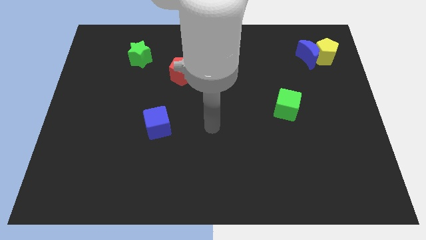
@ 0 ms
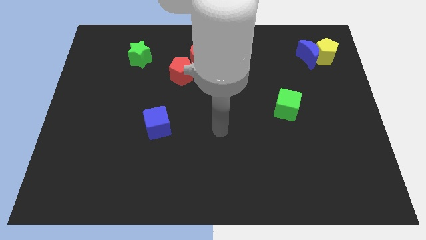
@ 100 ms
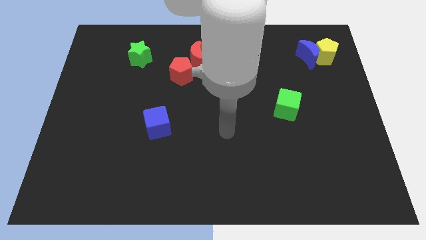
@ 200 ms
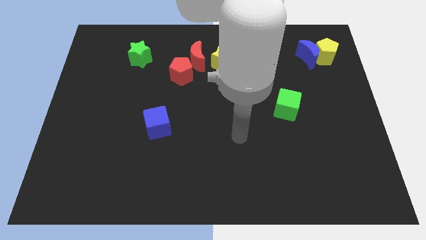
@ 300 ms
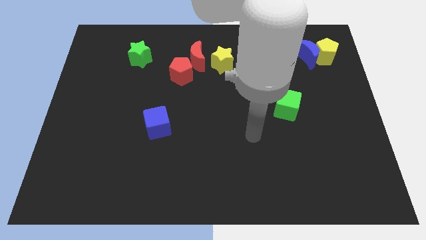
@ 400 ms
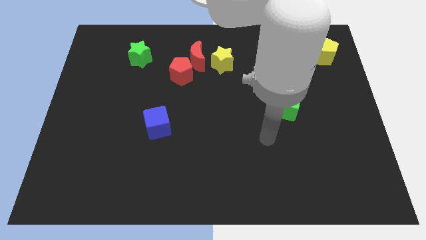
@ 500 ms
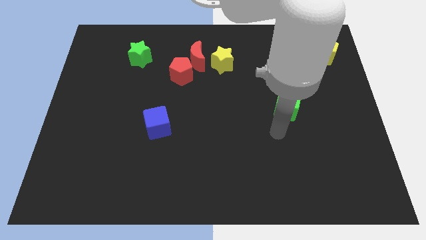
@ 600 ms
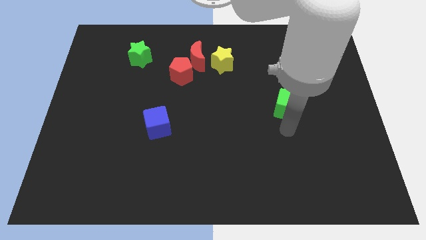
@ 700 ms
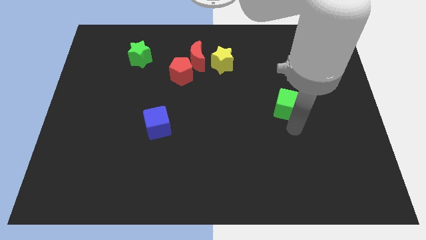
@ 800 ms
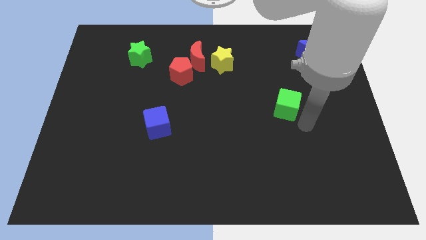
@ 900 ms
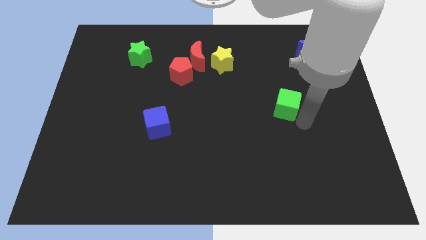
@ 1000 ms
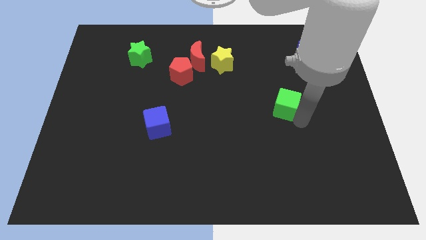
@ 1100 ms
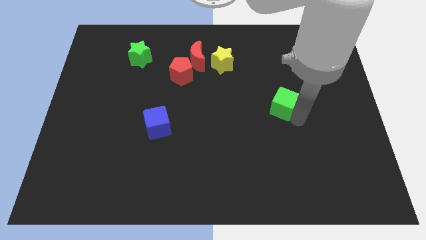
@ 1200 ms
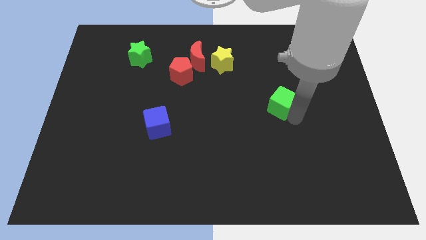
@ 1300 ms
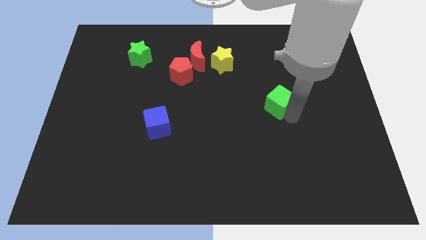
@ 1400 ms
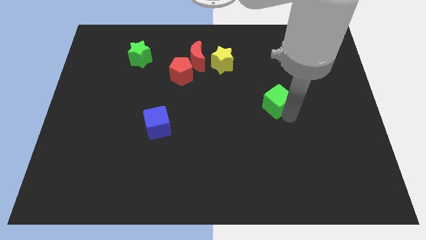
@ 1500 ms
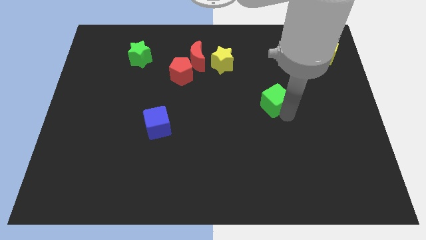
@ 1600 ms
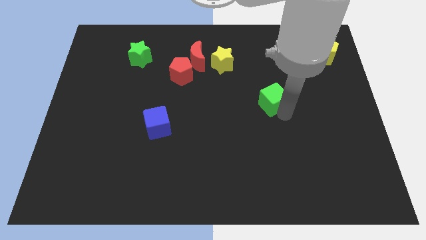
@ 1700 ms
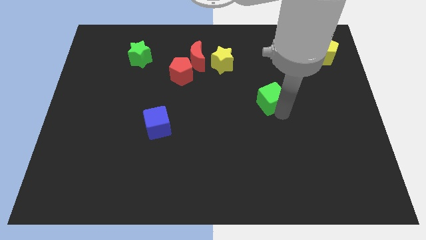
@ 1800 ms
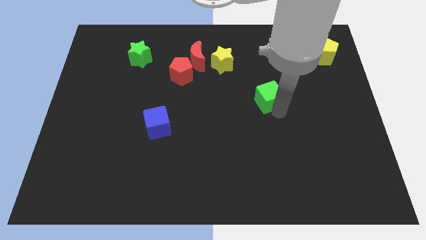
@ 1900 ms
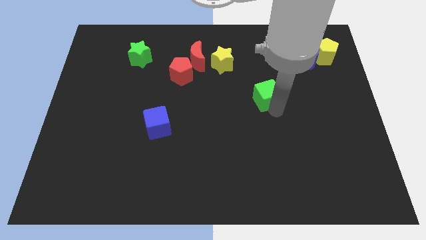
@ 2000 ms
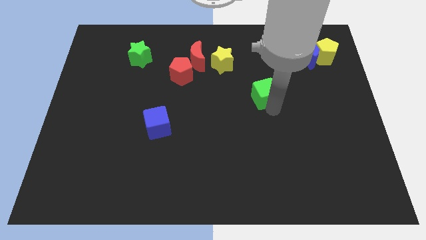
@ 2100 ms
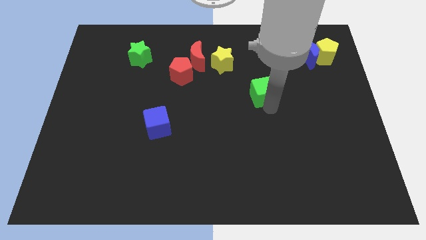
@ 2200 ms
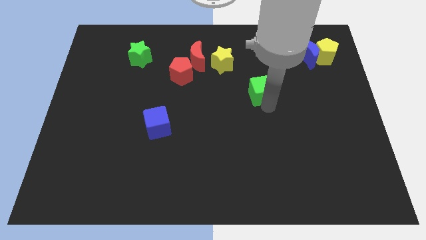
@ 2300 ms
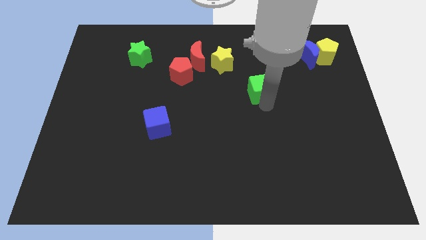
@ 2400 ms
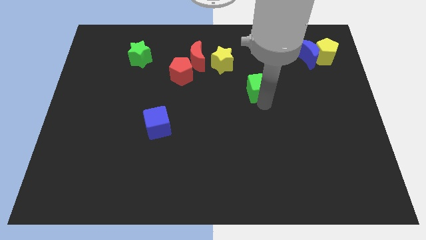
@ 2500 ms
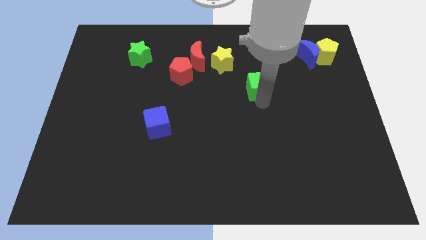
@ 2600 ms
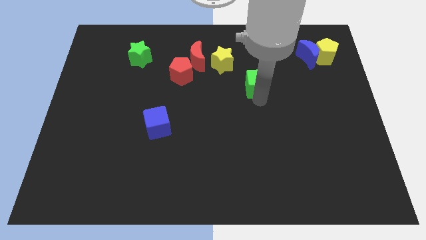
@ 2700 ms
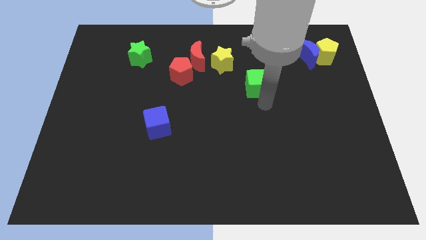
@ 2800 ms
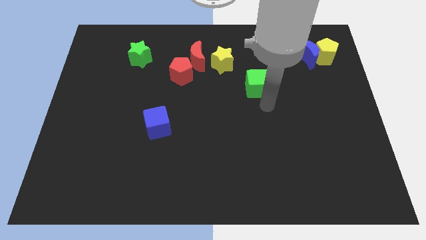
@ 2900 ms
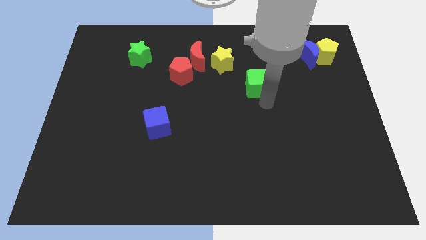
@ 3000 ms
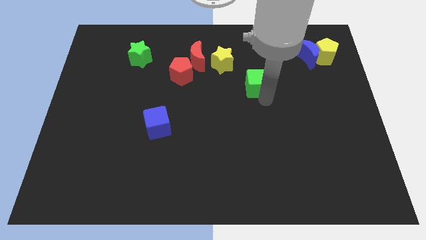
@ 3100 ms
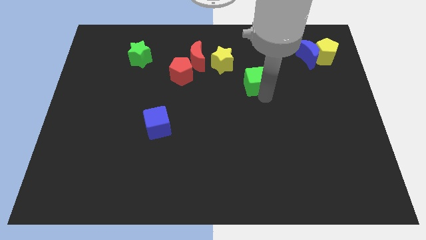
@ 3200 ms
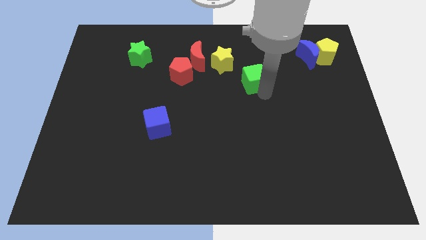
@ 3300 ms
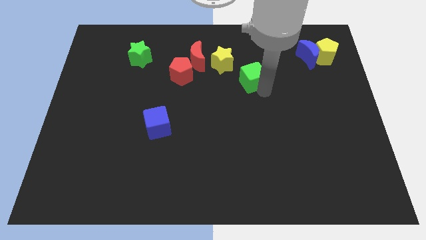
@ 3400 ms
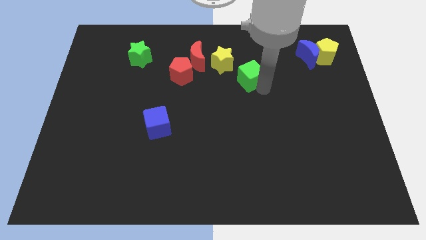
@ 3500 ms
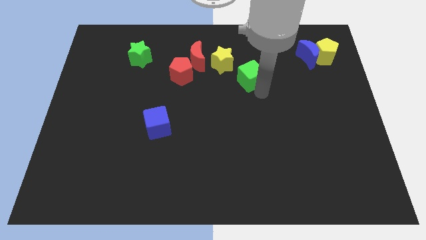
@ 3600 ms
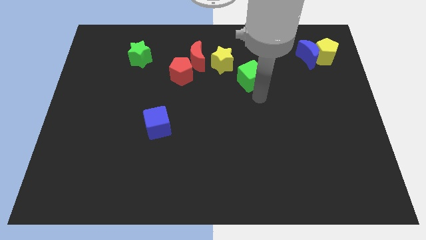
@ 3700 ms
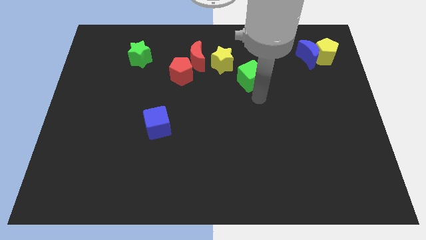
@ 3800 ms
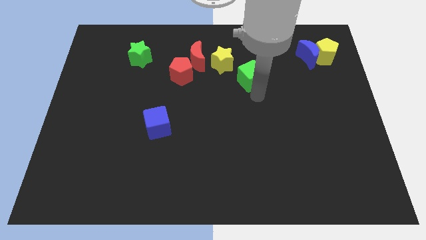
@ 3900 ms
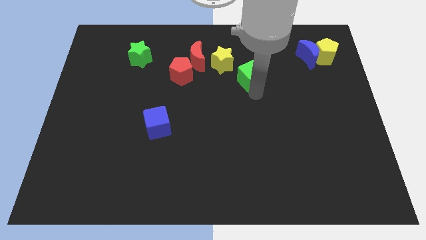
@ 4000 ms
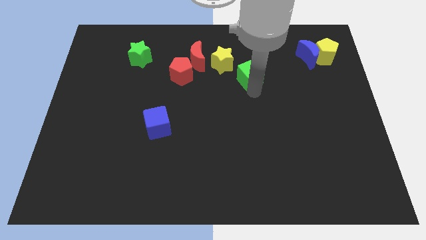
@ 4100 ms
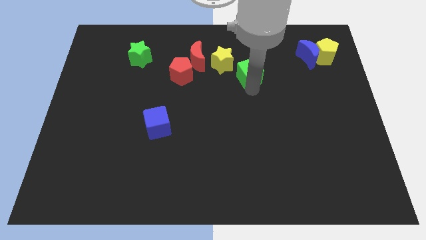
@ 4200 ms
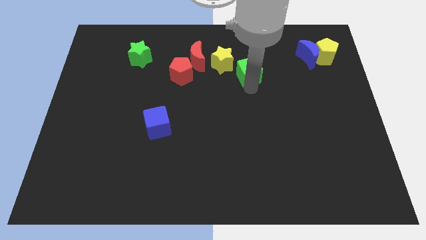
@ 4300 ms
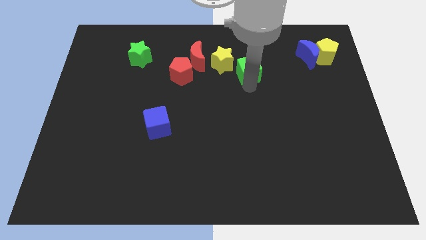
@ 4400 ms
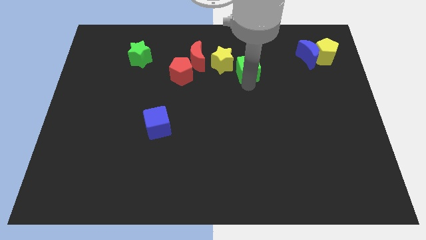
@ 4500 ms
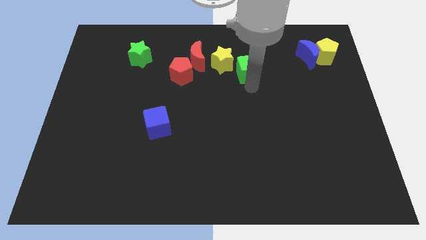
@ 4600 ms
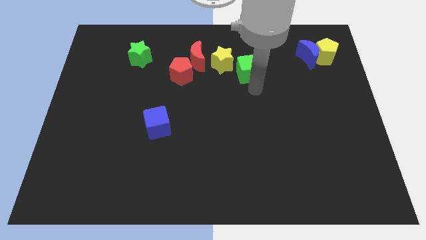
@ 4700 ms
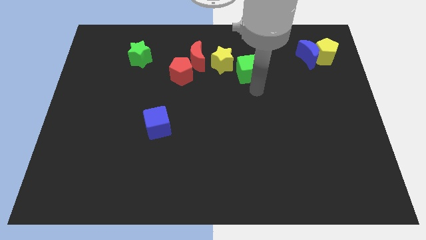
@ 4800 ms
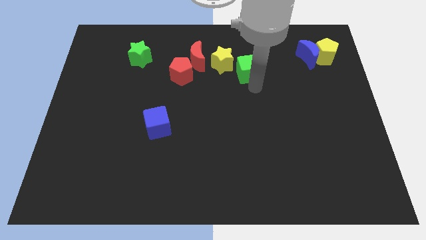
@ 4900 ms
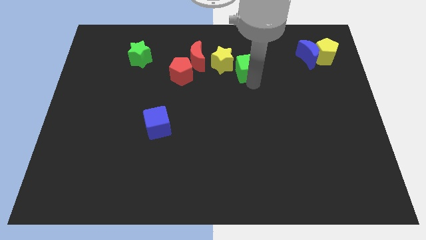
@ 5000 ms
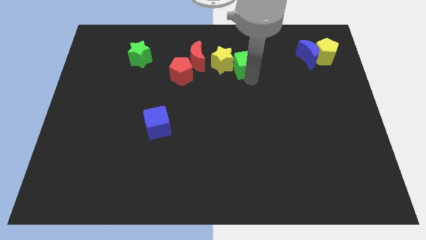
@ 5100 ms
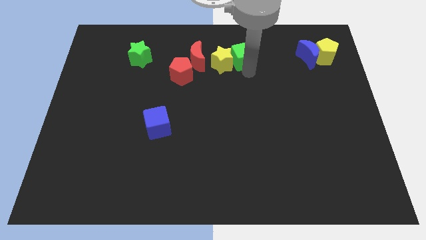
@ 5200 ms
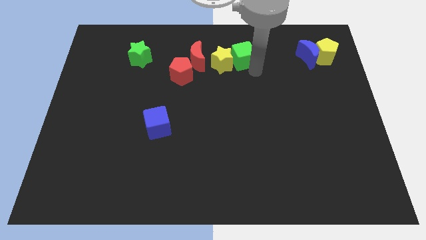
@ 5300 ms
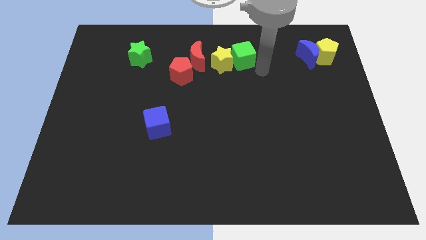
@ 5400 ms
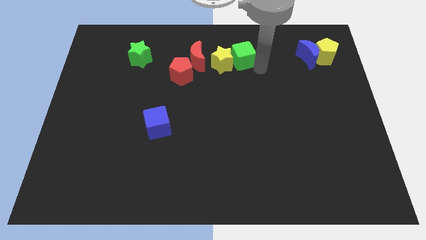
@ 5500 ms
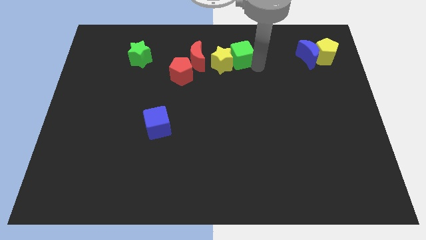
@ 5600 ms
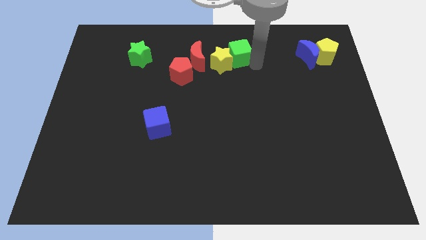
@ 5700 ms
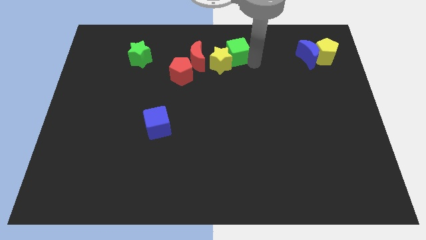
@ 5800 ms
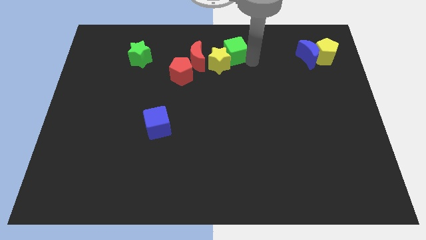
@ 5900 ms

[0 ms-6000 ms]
move the green cube to the towards your base

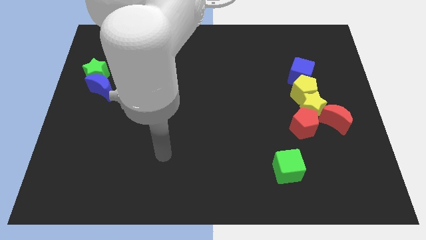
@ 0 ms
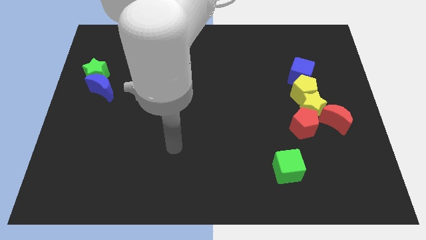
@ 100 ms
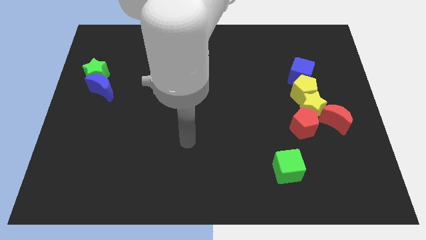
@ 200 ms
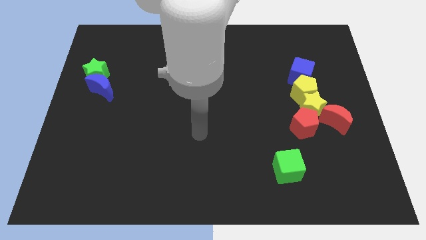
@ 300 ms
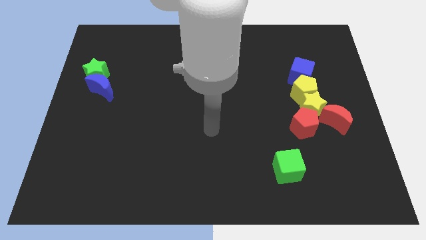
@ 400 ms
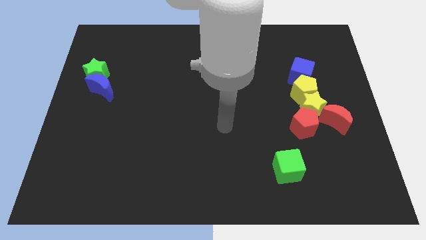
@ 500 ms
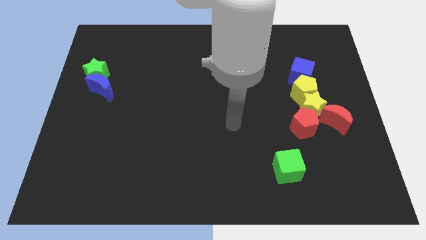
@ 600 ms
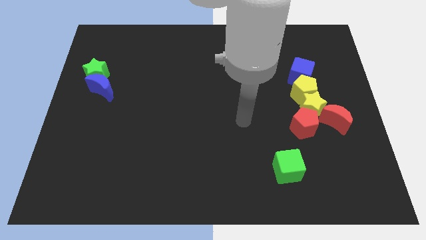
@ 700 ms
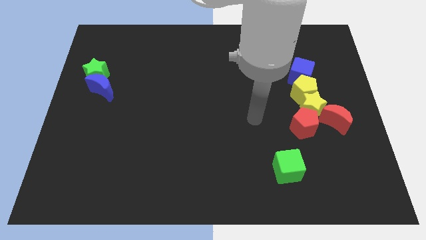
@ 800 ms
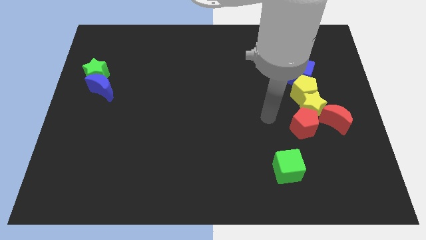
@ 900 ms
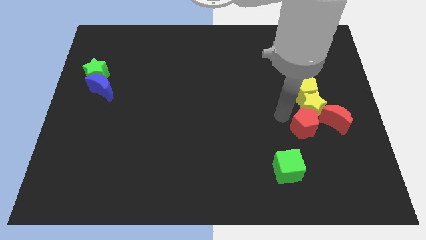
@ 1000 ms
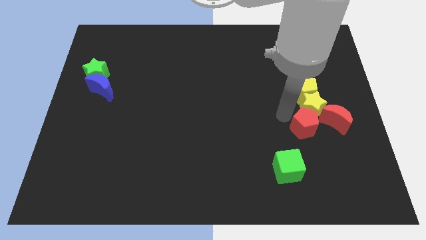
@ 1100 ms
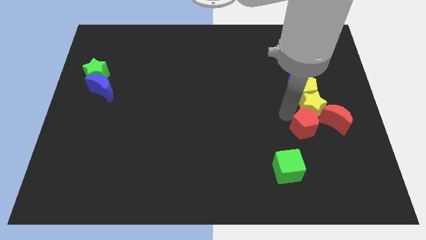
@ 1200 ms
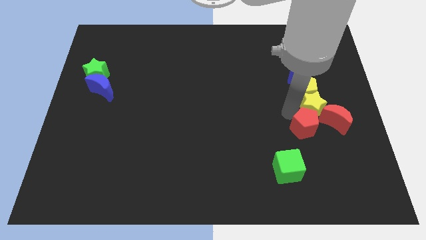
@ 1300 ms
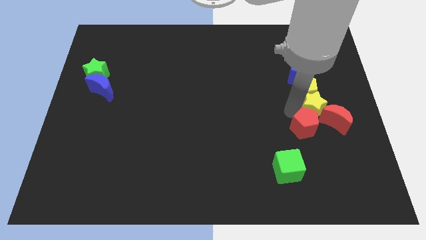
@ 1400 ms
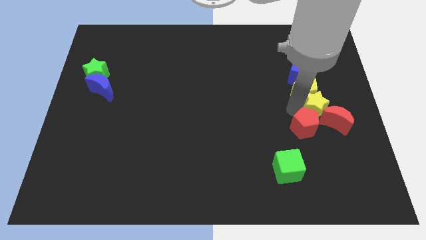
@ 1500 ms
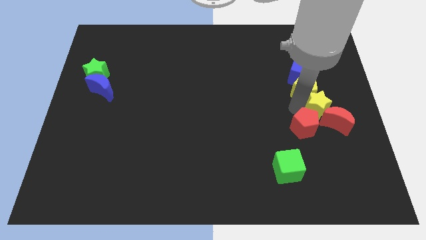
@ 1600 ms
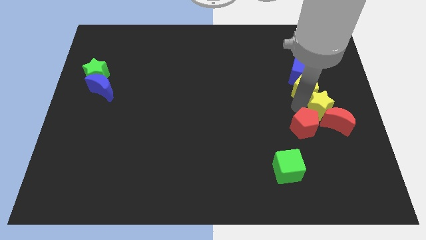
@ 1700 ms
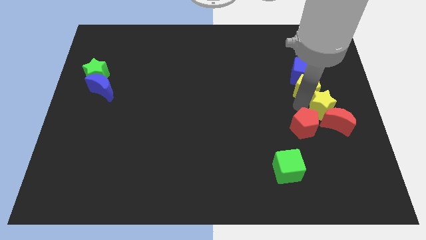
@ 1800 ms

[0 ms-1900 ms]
push the yellow star to the right side
